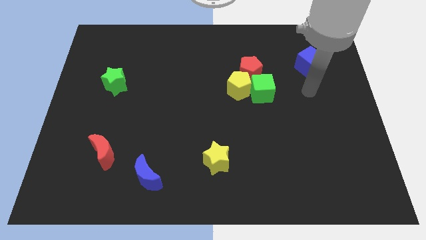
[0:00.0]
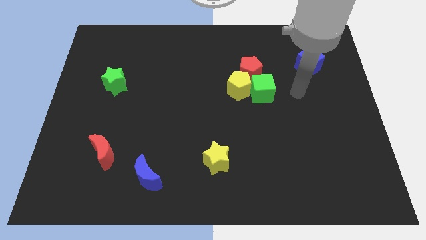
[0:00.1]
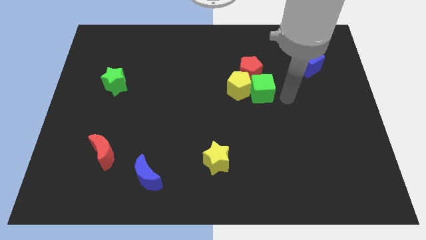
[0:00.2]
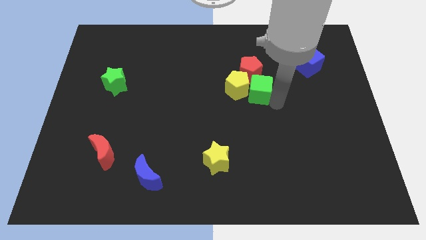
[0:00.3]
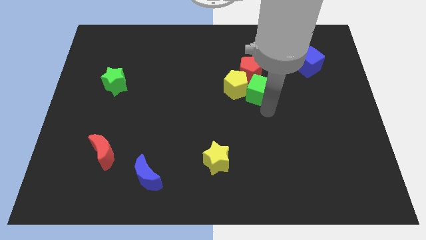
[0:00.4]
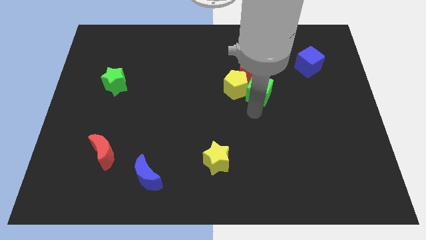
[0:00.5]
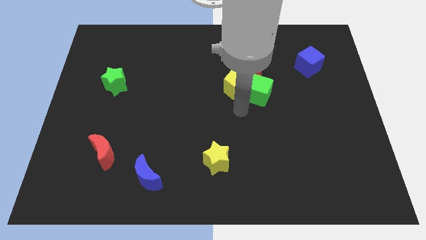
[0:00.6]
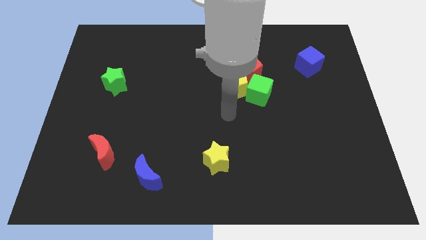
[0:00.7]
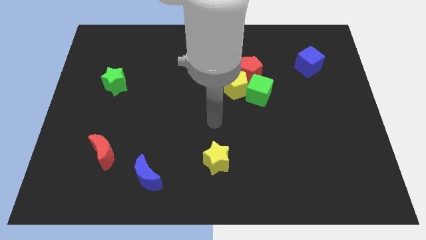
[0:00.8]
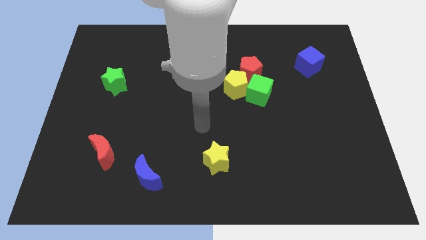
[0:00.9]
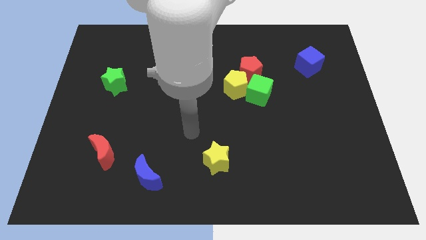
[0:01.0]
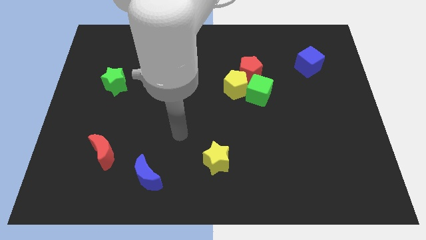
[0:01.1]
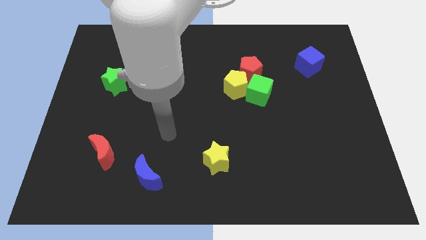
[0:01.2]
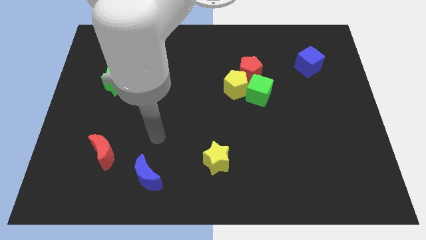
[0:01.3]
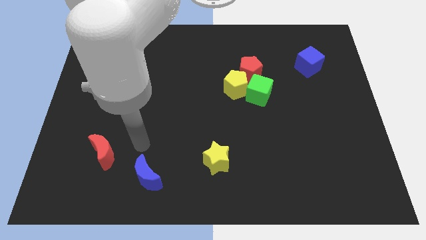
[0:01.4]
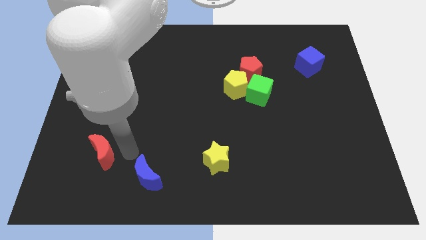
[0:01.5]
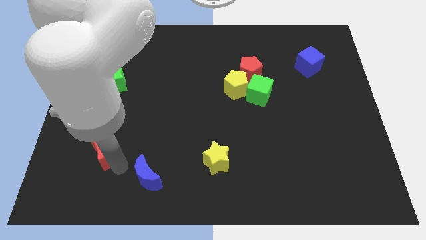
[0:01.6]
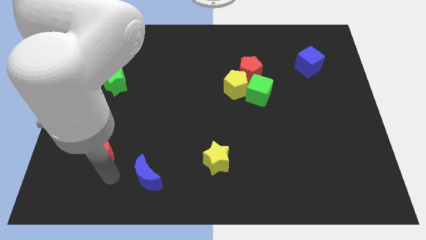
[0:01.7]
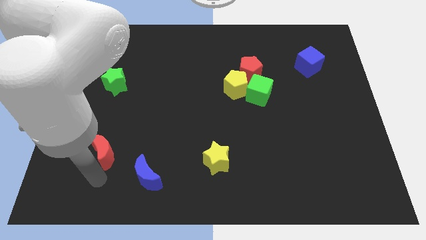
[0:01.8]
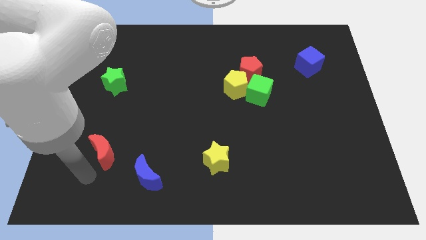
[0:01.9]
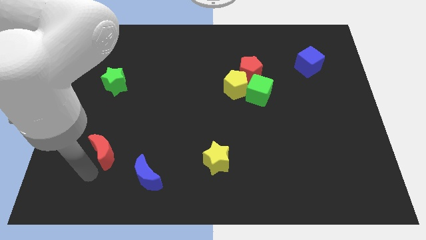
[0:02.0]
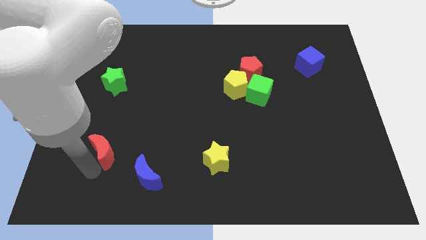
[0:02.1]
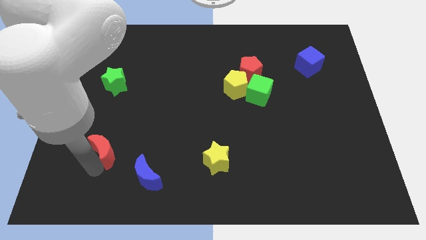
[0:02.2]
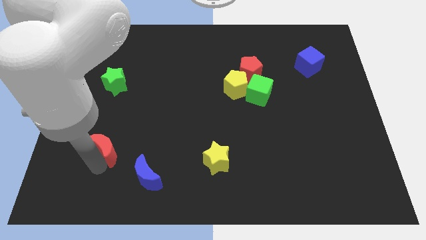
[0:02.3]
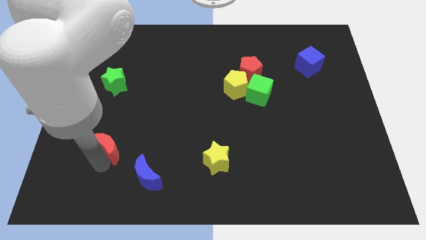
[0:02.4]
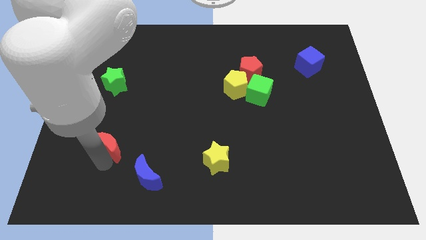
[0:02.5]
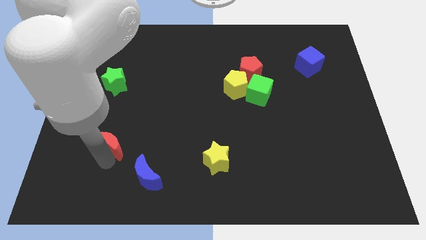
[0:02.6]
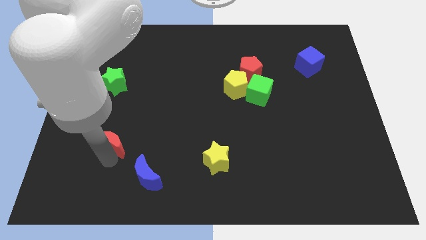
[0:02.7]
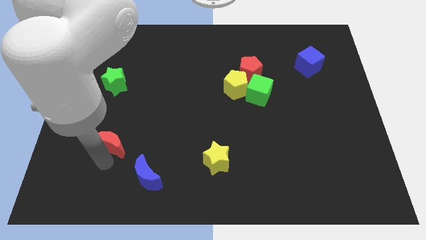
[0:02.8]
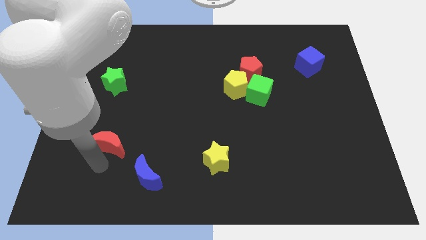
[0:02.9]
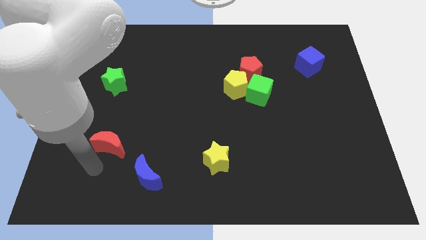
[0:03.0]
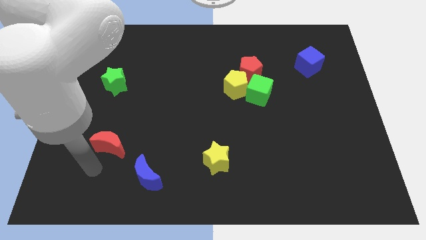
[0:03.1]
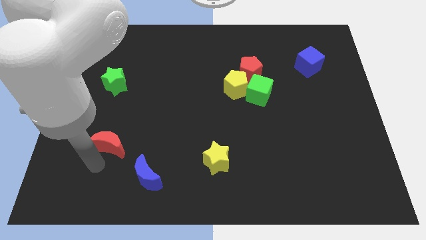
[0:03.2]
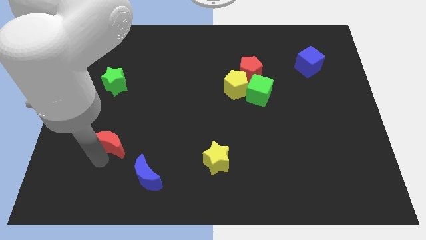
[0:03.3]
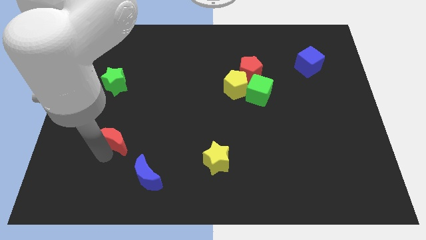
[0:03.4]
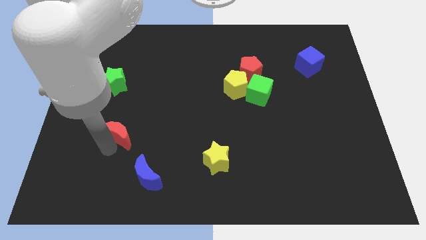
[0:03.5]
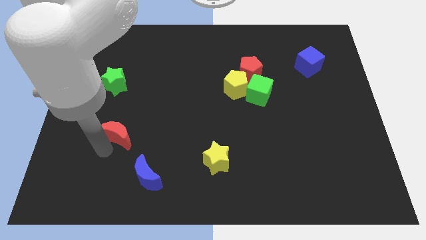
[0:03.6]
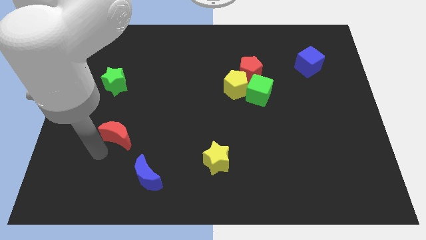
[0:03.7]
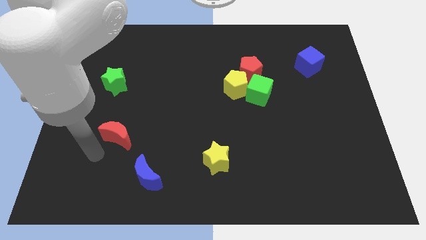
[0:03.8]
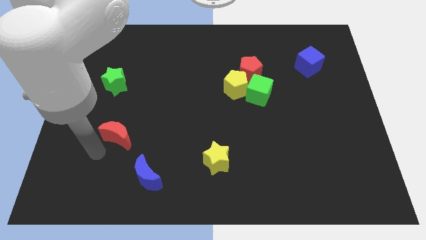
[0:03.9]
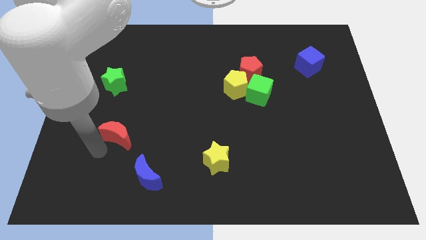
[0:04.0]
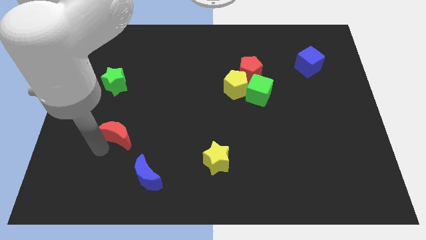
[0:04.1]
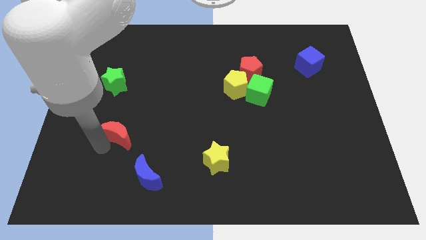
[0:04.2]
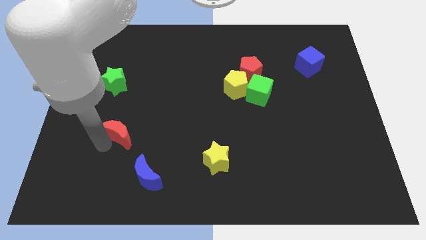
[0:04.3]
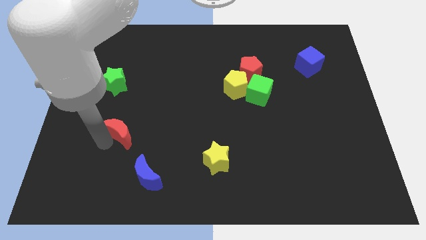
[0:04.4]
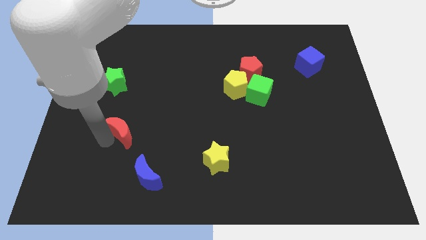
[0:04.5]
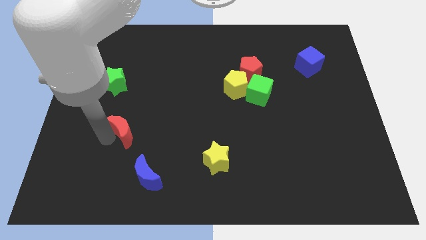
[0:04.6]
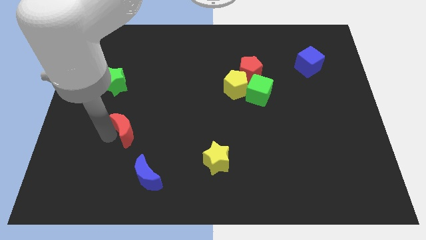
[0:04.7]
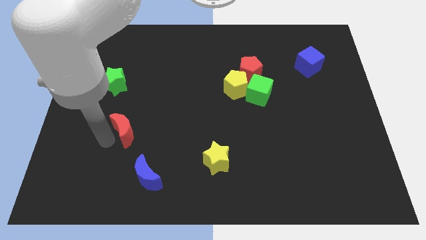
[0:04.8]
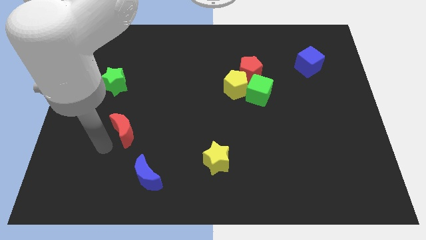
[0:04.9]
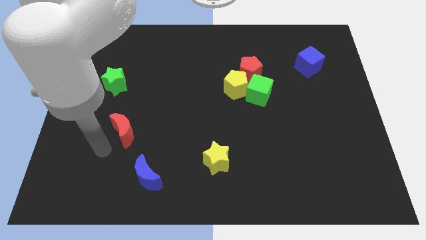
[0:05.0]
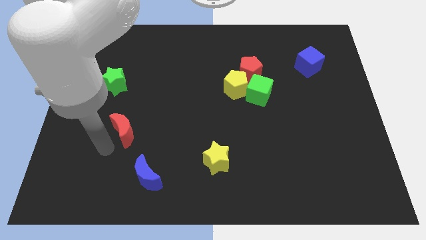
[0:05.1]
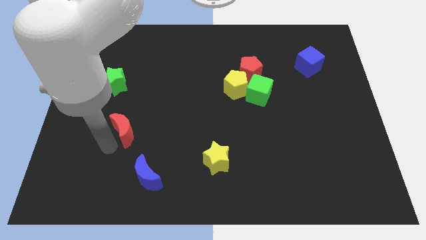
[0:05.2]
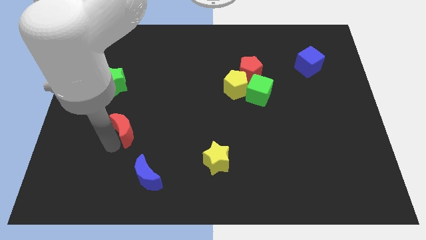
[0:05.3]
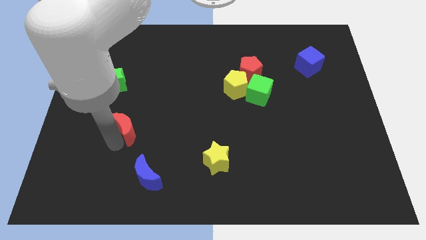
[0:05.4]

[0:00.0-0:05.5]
slightly push the red moon upwards and then to the right

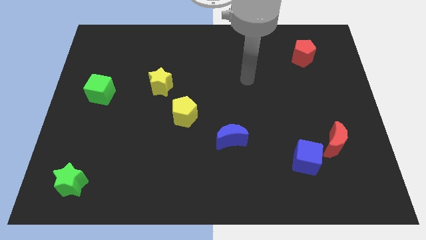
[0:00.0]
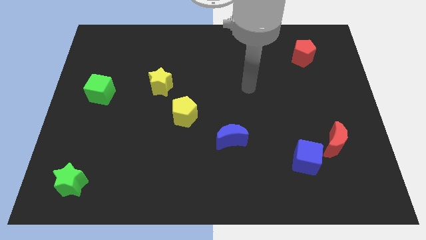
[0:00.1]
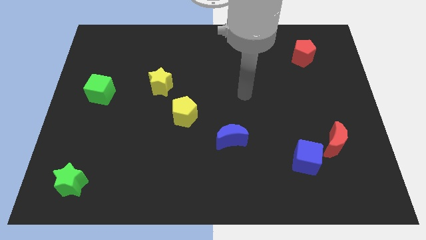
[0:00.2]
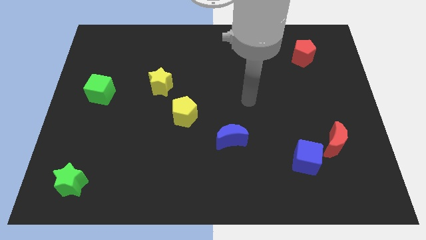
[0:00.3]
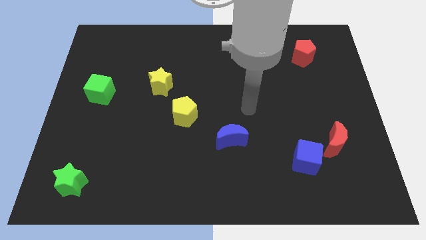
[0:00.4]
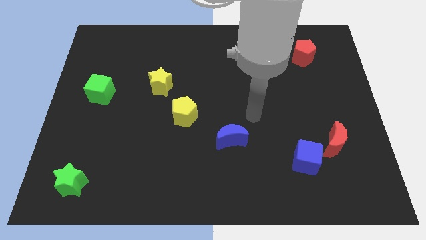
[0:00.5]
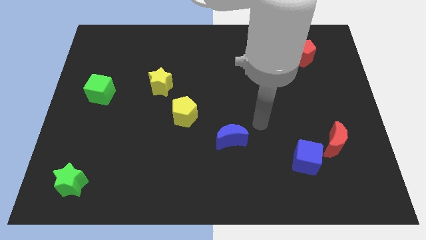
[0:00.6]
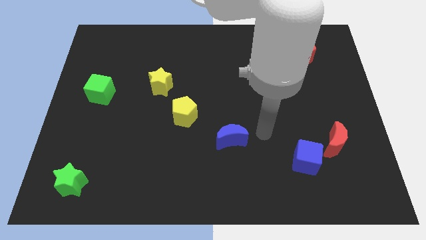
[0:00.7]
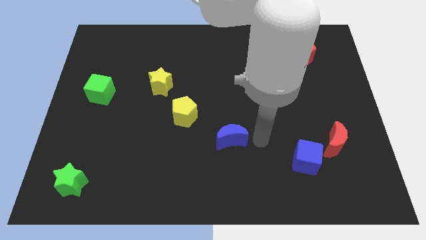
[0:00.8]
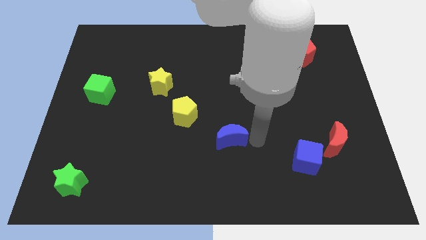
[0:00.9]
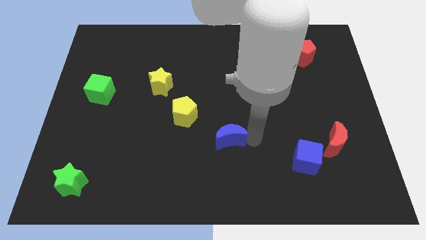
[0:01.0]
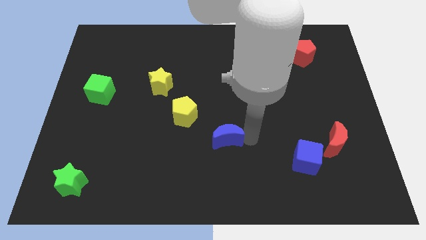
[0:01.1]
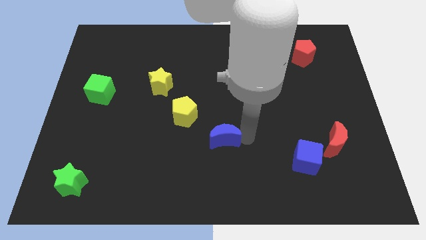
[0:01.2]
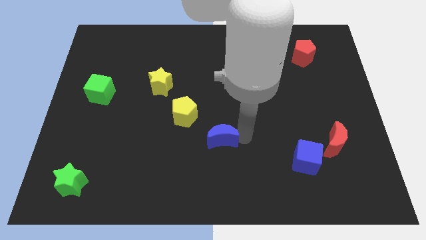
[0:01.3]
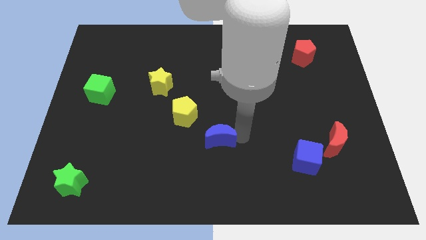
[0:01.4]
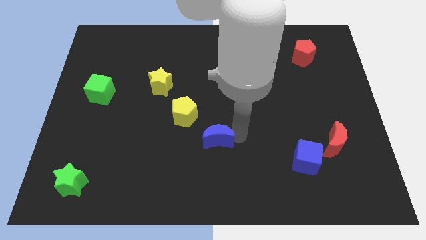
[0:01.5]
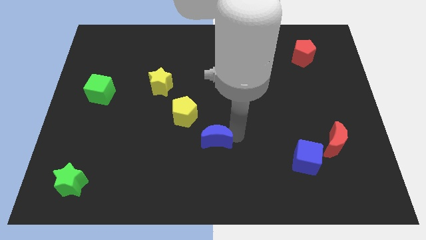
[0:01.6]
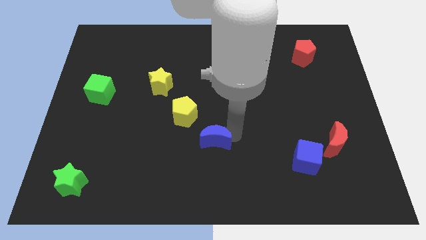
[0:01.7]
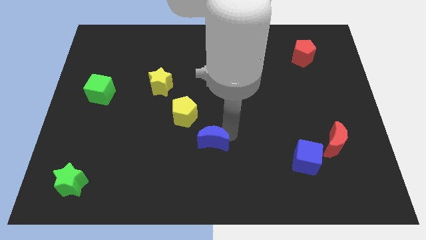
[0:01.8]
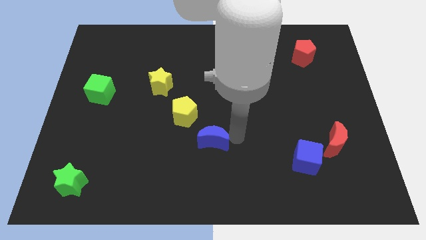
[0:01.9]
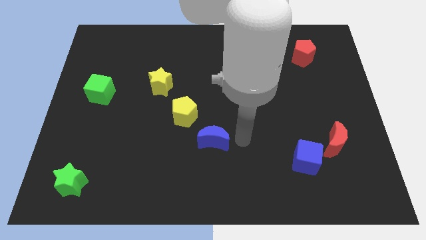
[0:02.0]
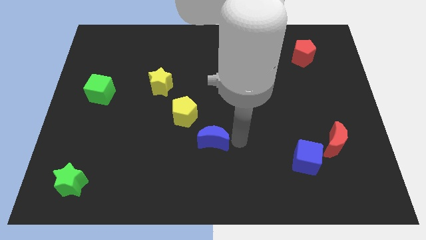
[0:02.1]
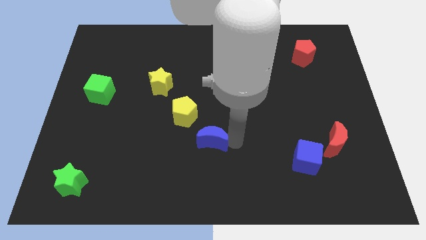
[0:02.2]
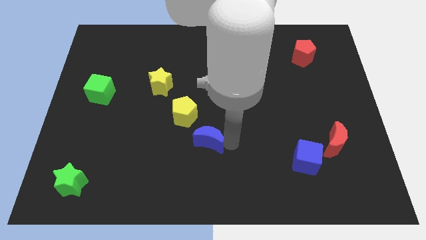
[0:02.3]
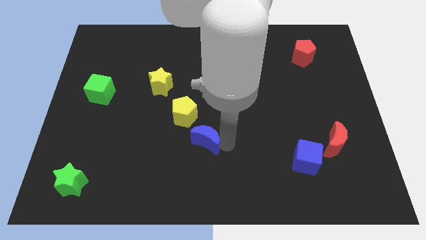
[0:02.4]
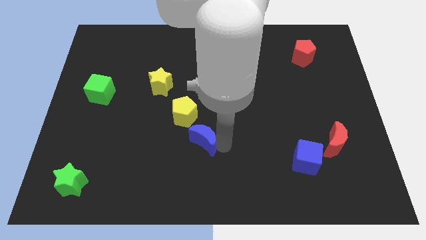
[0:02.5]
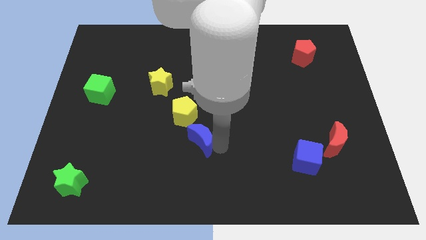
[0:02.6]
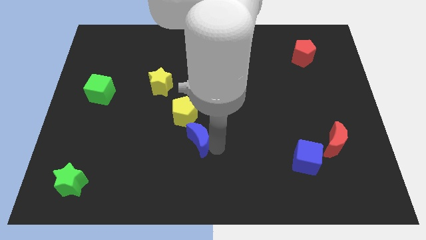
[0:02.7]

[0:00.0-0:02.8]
slightly slide the blue moon left
